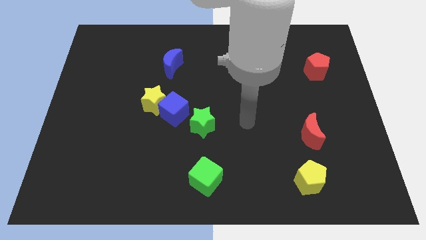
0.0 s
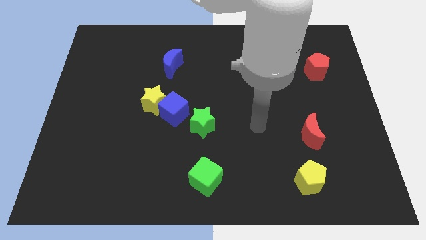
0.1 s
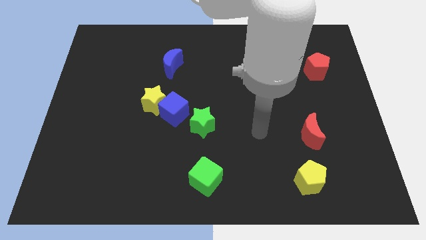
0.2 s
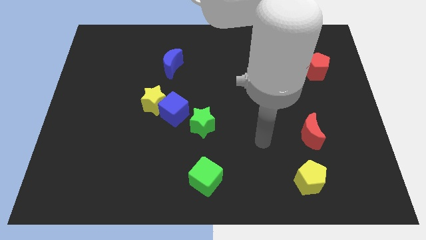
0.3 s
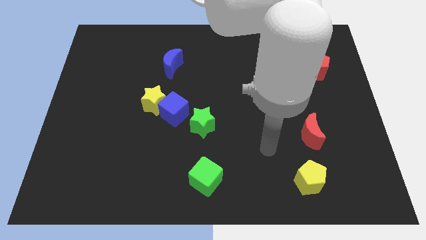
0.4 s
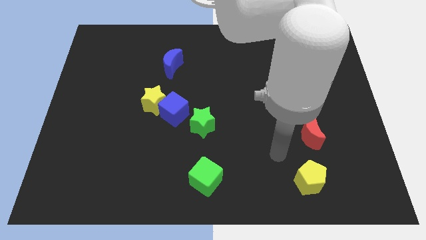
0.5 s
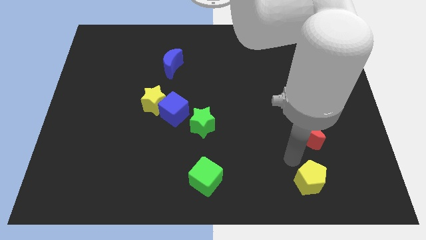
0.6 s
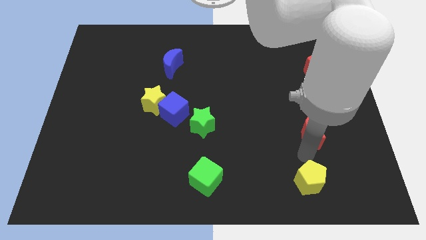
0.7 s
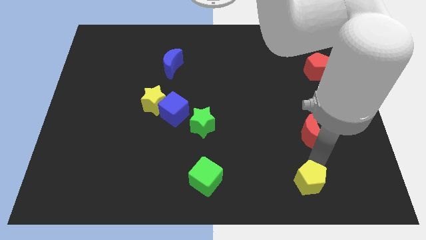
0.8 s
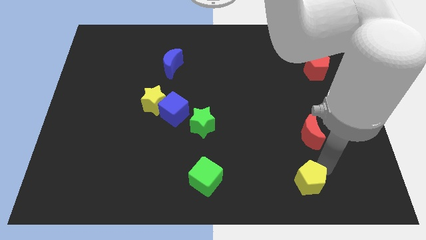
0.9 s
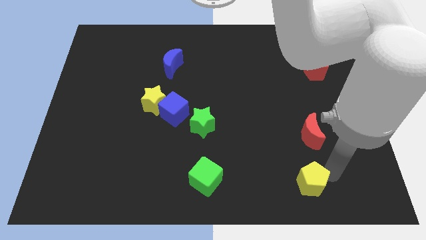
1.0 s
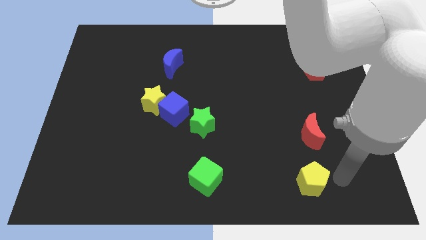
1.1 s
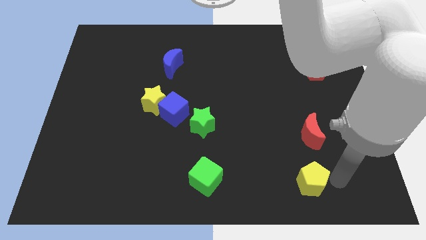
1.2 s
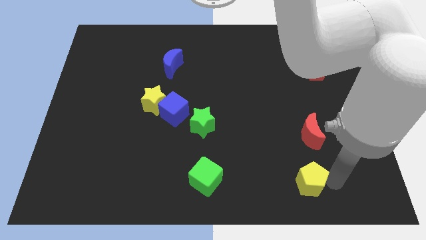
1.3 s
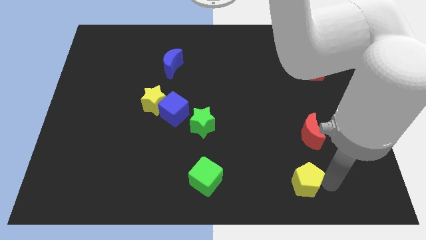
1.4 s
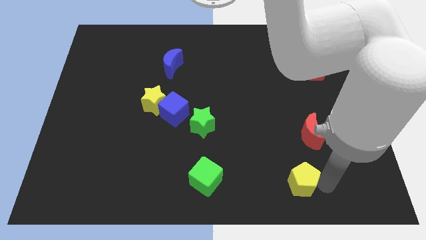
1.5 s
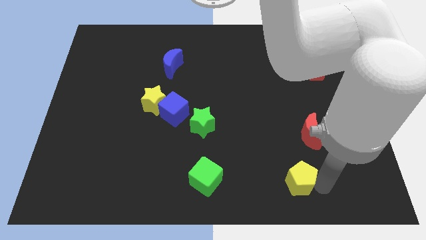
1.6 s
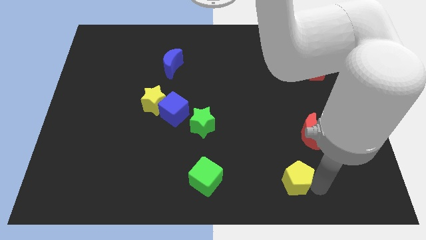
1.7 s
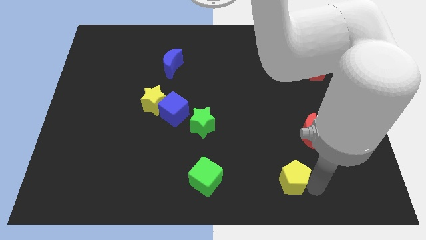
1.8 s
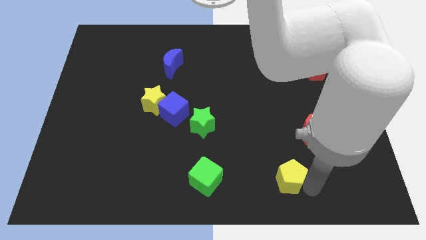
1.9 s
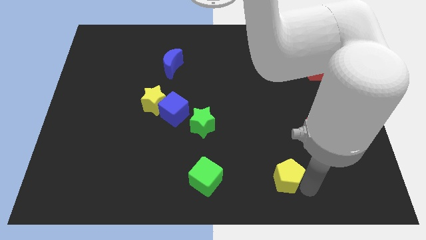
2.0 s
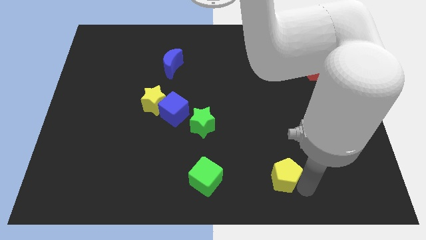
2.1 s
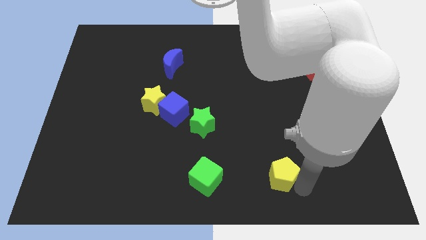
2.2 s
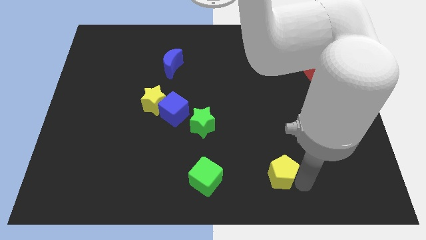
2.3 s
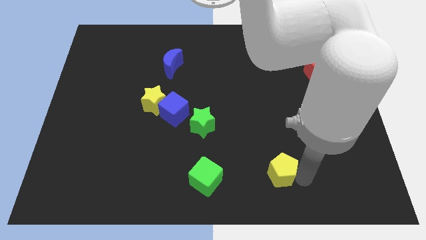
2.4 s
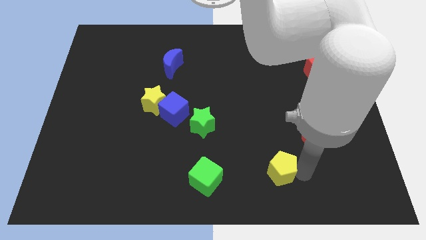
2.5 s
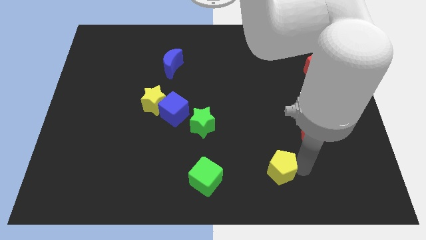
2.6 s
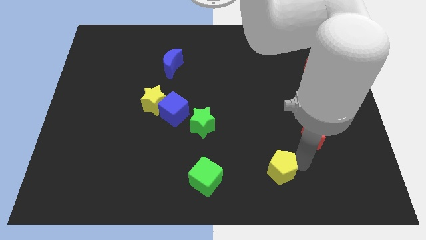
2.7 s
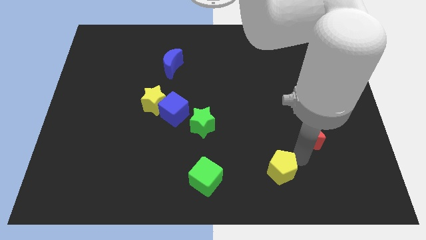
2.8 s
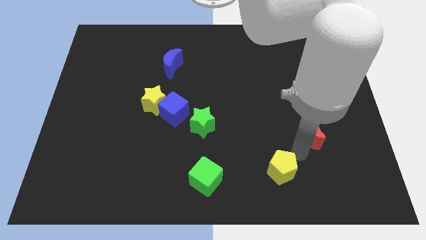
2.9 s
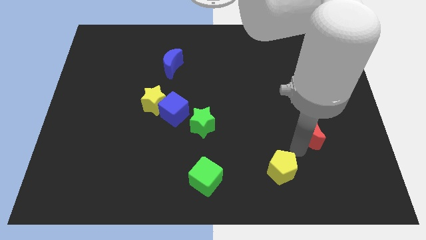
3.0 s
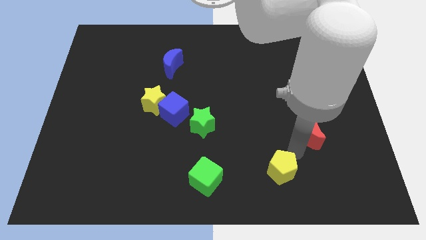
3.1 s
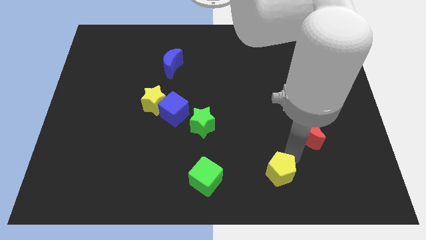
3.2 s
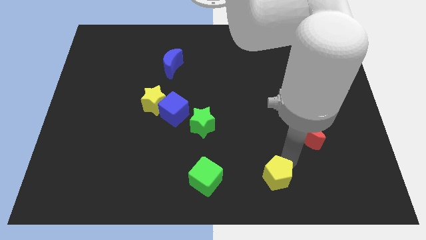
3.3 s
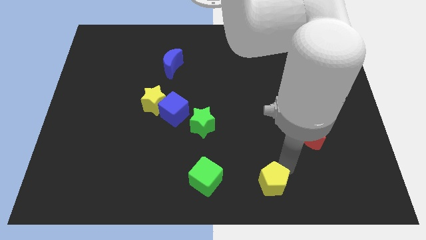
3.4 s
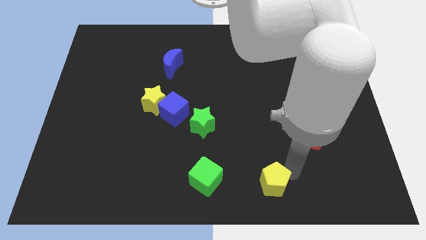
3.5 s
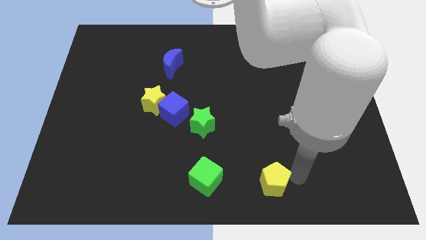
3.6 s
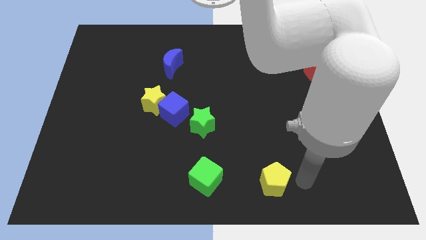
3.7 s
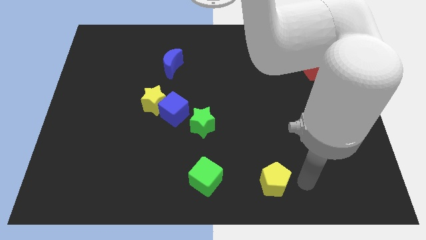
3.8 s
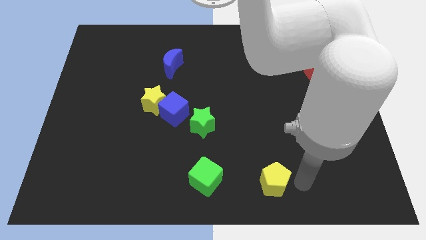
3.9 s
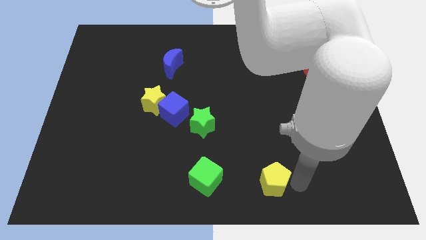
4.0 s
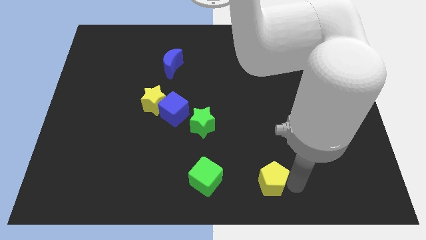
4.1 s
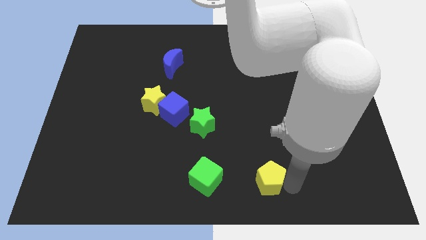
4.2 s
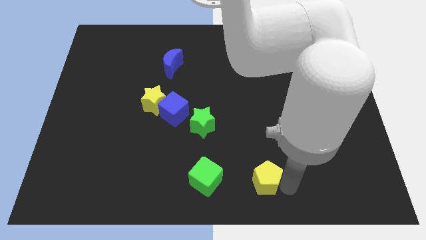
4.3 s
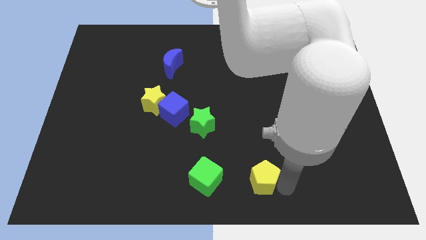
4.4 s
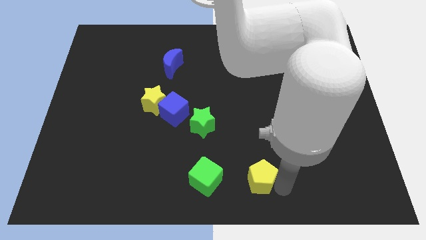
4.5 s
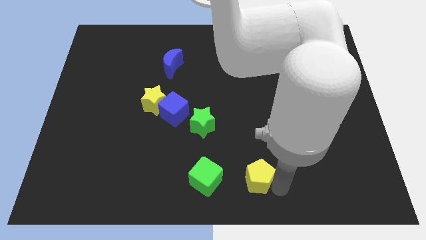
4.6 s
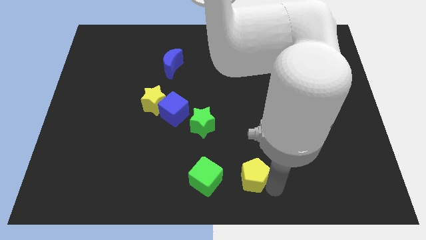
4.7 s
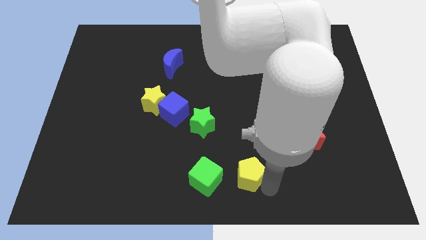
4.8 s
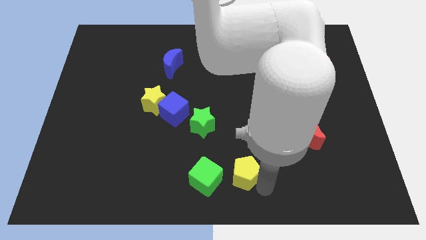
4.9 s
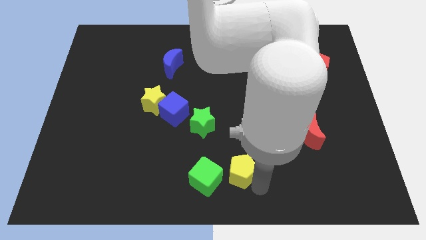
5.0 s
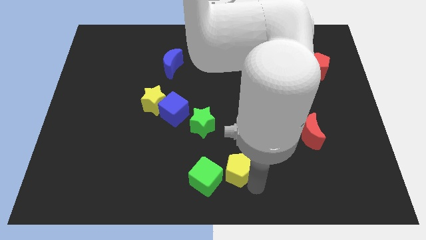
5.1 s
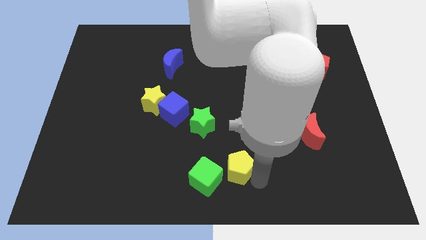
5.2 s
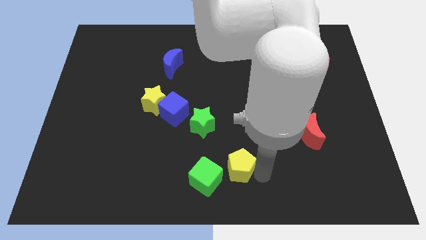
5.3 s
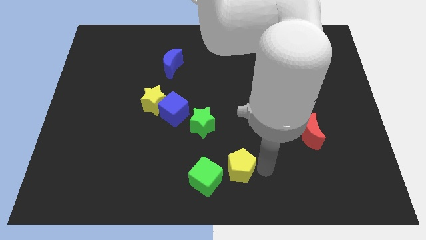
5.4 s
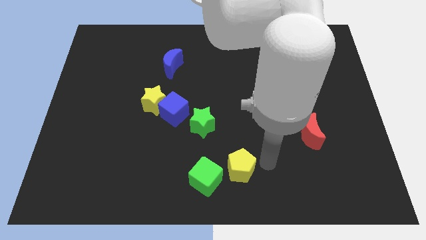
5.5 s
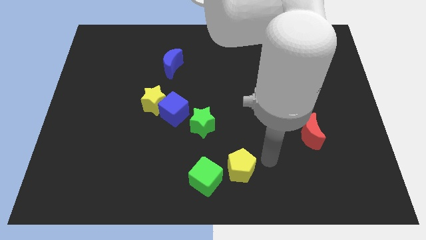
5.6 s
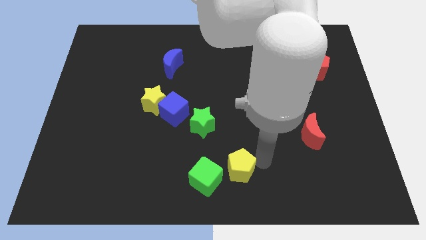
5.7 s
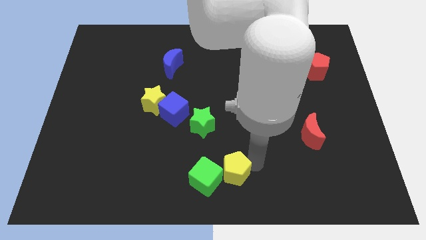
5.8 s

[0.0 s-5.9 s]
push the yellow pentagon to the green cube

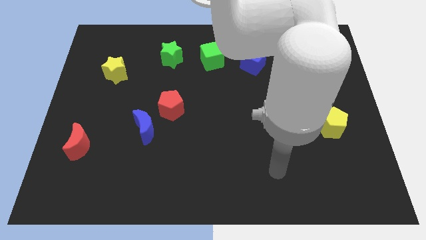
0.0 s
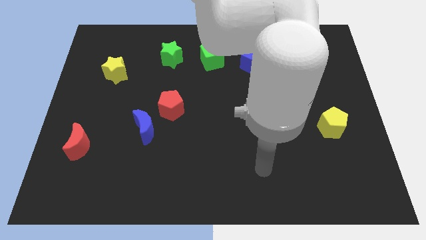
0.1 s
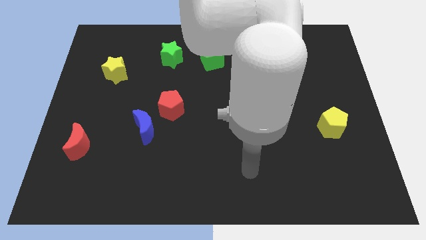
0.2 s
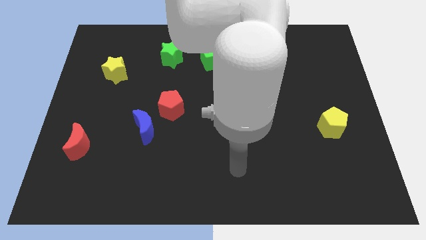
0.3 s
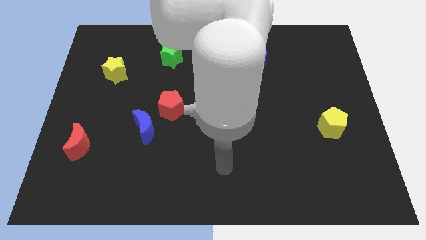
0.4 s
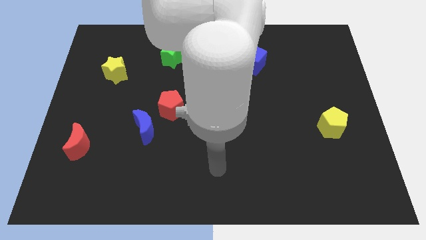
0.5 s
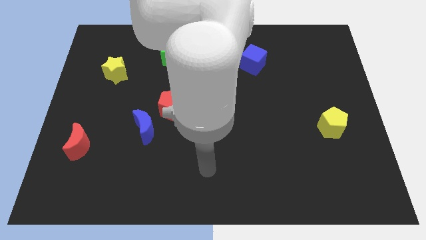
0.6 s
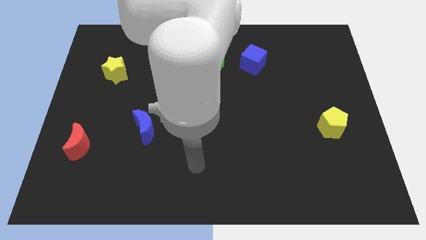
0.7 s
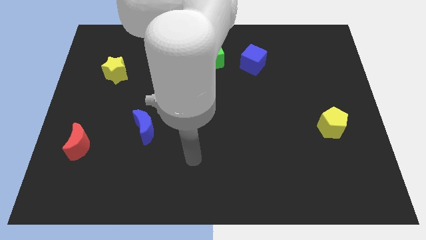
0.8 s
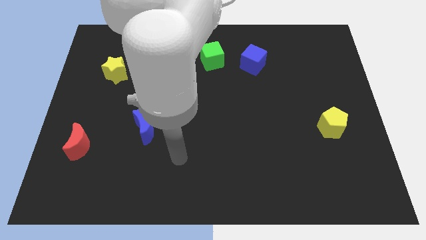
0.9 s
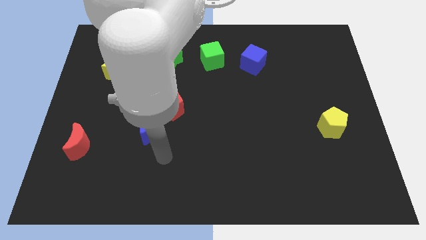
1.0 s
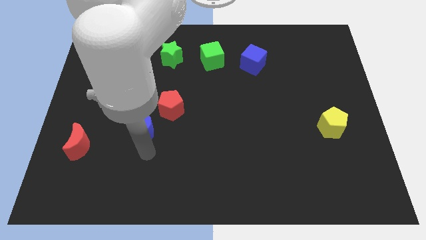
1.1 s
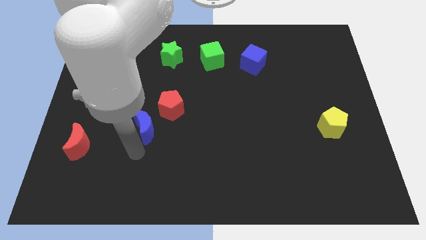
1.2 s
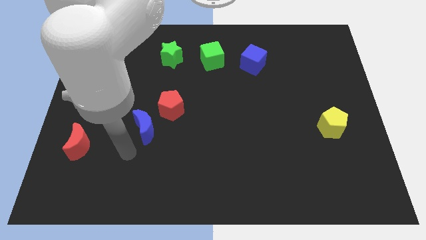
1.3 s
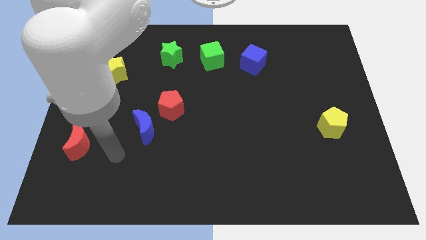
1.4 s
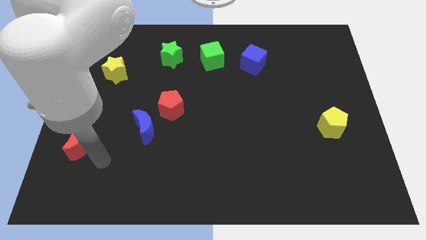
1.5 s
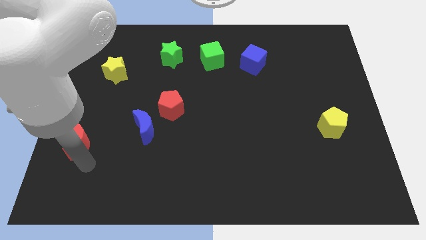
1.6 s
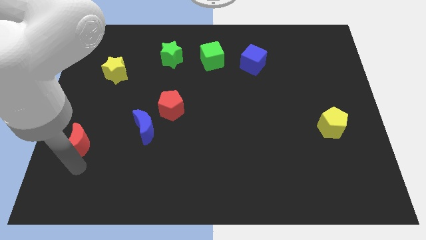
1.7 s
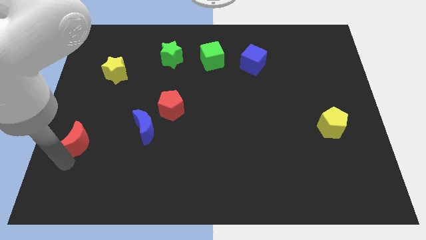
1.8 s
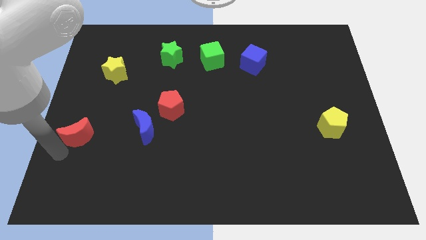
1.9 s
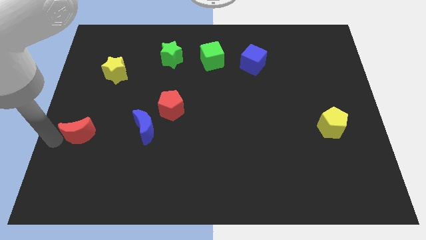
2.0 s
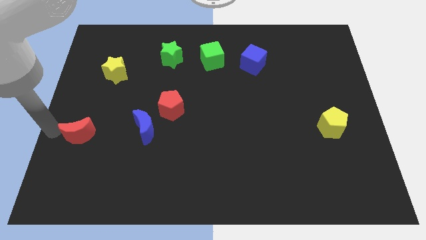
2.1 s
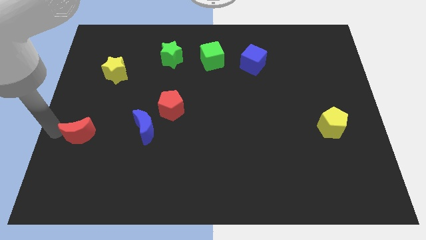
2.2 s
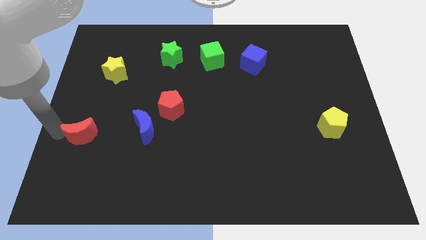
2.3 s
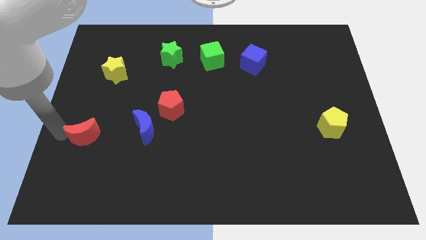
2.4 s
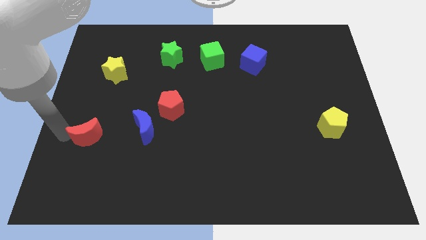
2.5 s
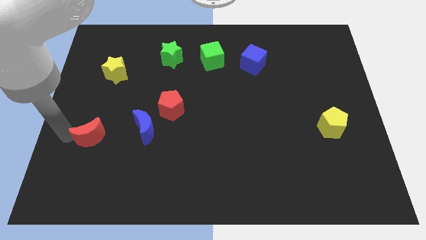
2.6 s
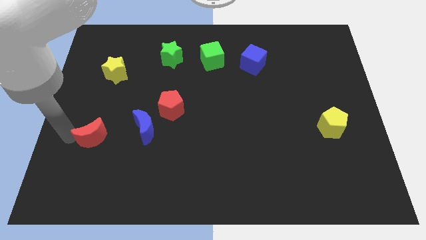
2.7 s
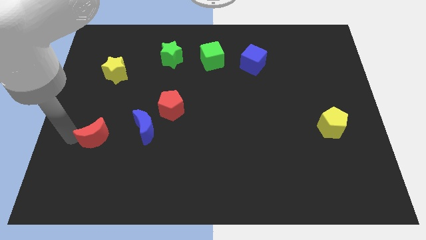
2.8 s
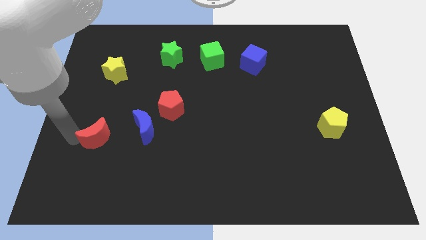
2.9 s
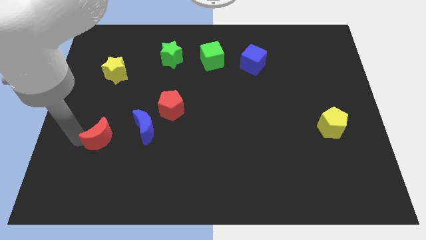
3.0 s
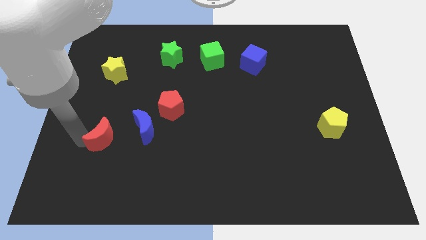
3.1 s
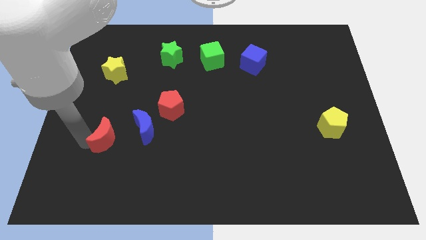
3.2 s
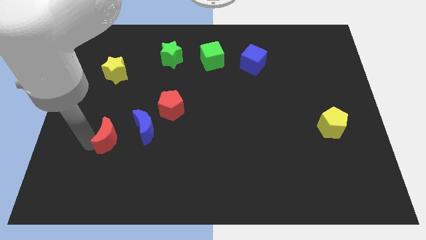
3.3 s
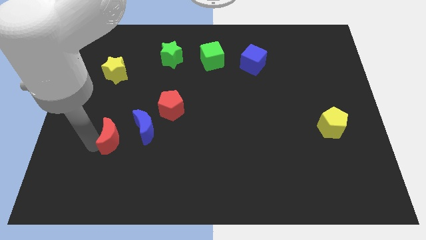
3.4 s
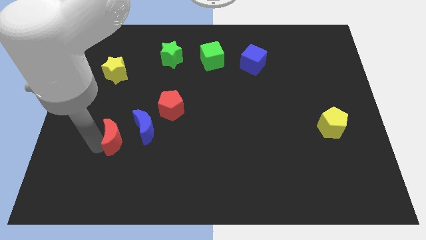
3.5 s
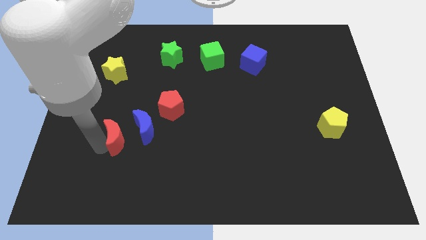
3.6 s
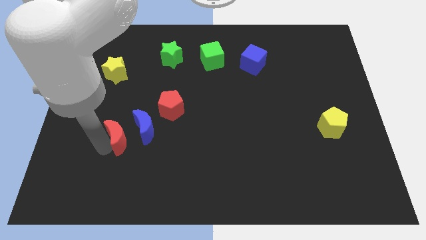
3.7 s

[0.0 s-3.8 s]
slide the red moon towards the blue moon
